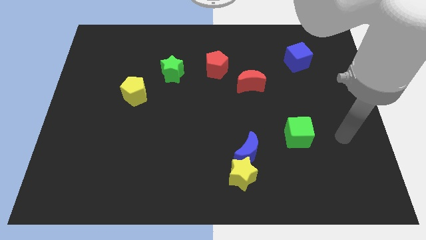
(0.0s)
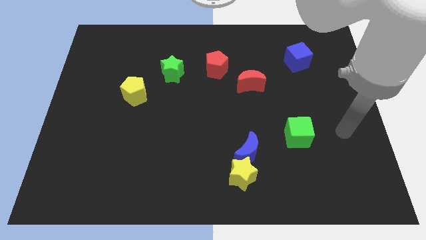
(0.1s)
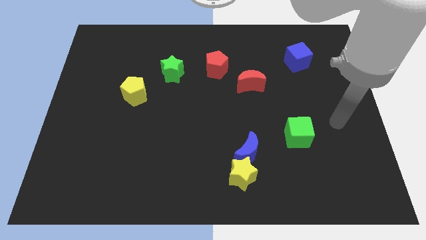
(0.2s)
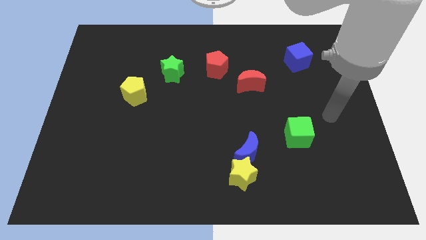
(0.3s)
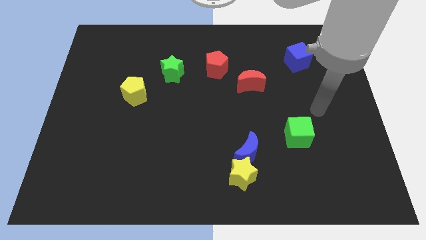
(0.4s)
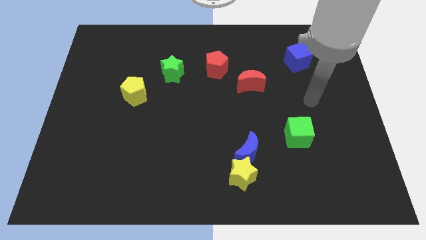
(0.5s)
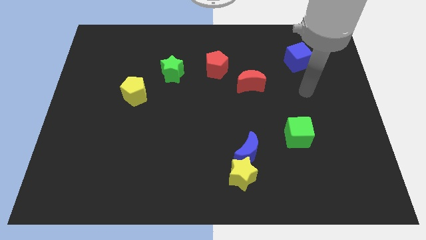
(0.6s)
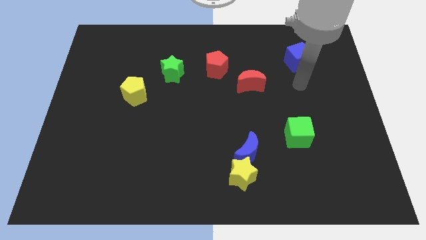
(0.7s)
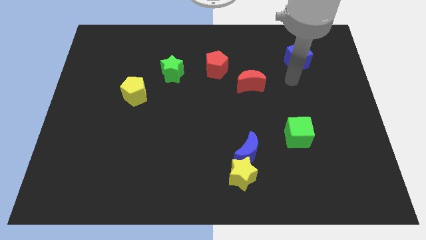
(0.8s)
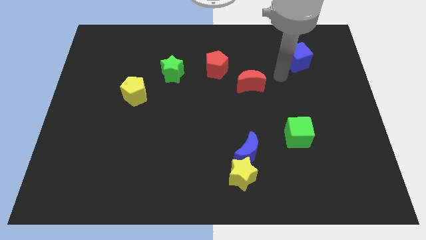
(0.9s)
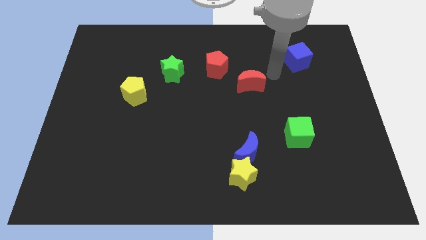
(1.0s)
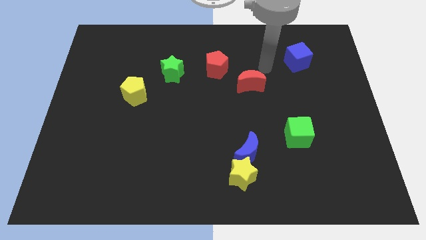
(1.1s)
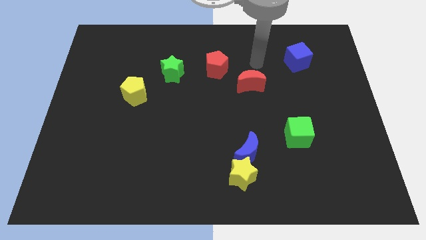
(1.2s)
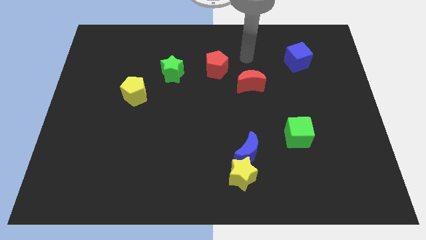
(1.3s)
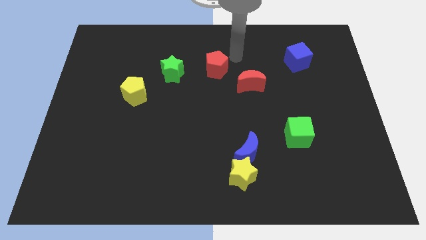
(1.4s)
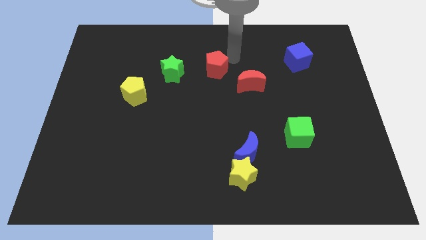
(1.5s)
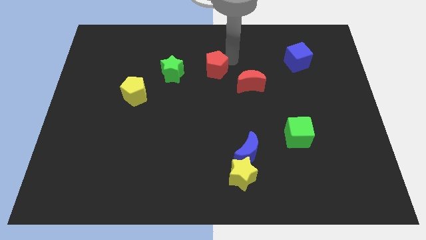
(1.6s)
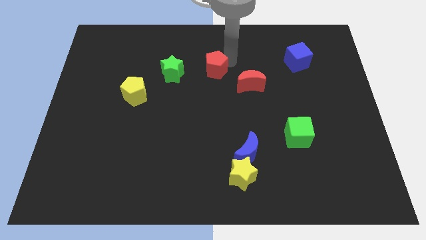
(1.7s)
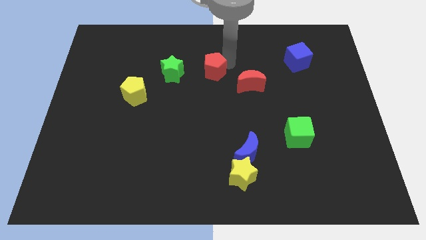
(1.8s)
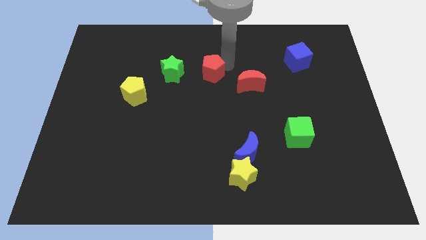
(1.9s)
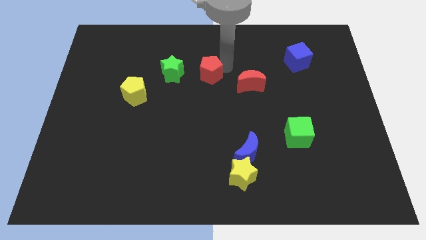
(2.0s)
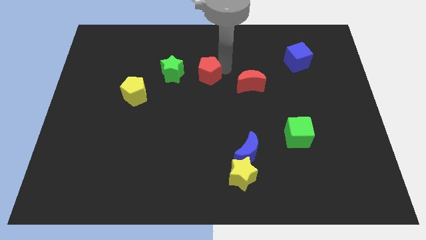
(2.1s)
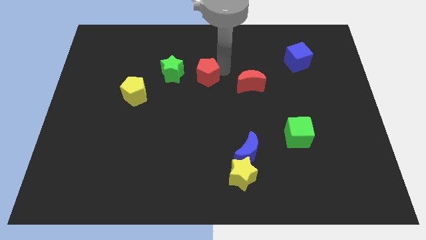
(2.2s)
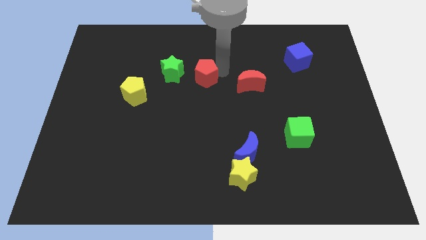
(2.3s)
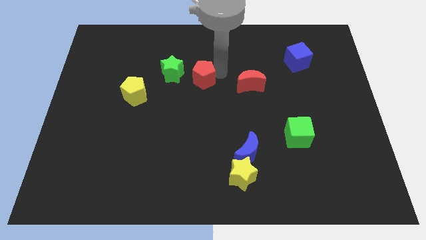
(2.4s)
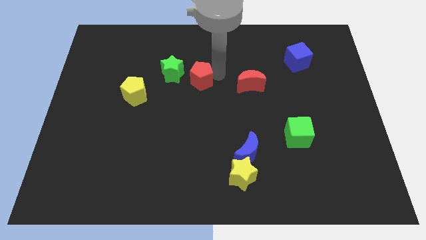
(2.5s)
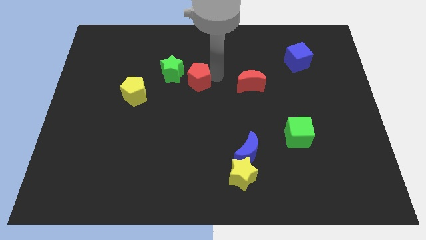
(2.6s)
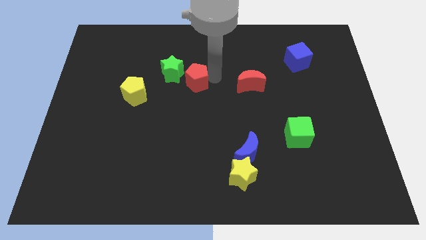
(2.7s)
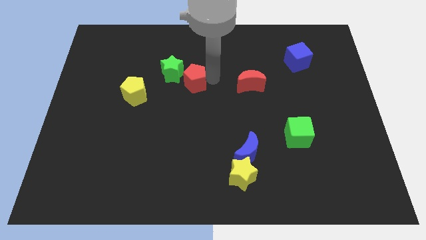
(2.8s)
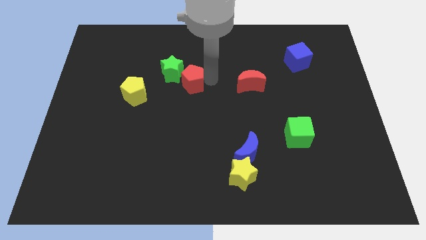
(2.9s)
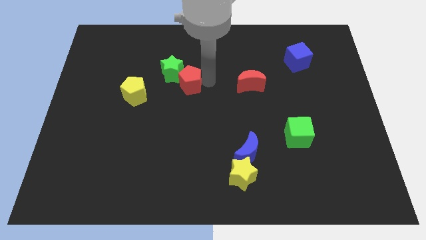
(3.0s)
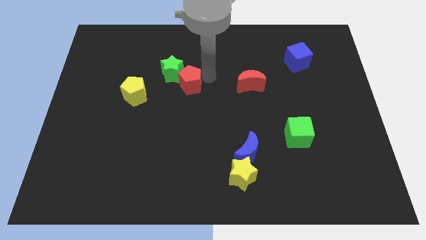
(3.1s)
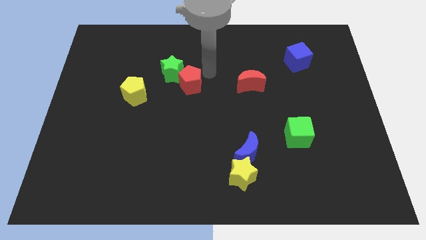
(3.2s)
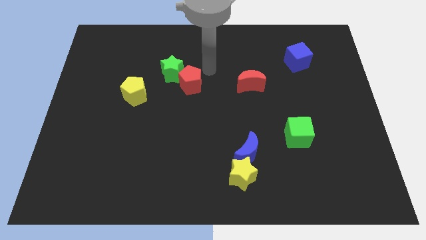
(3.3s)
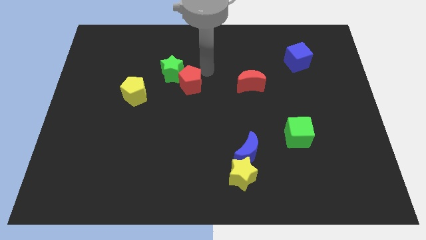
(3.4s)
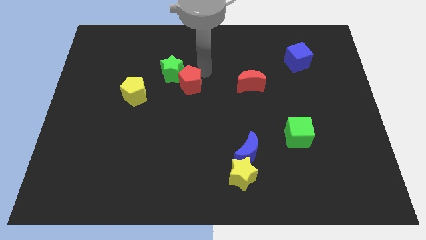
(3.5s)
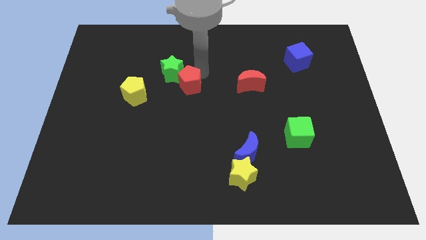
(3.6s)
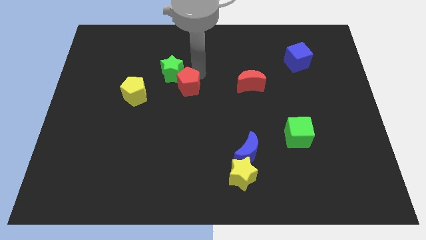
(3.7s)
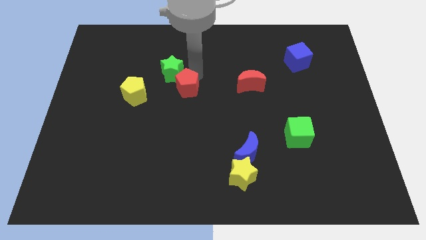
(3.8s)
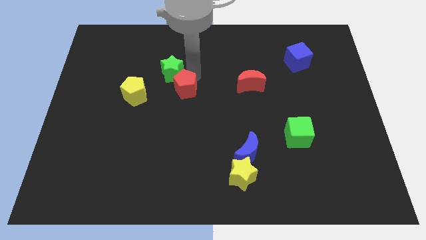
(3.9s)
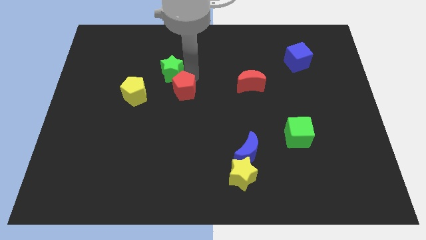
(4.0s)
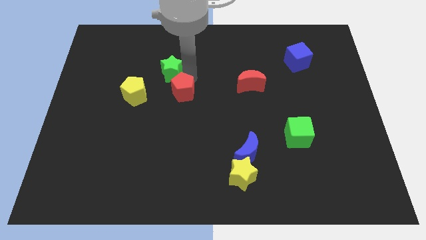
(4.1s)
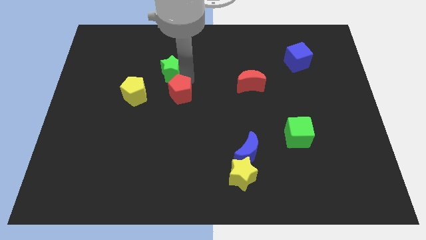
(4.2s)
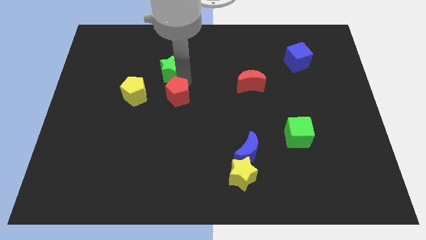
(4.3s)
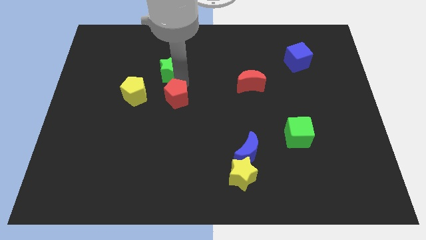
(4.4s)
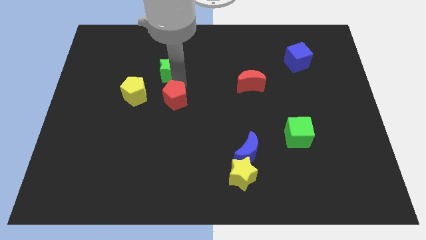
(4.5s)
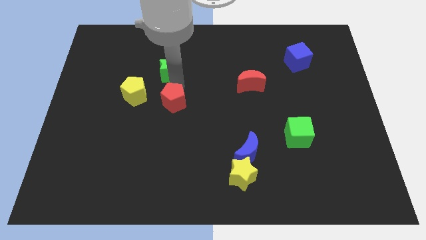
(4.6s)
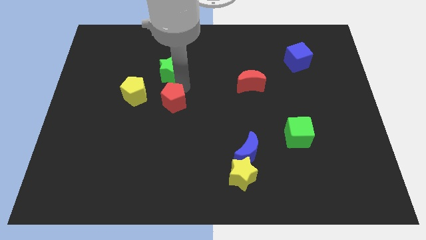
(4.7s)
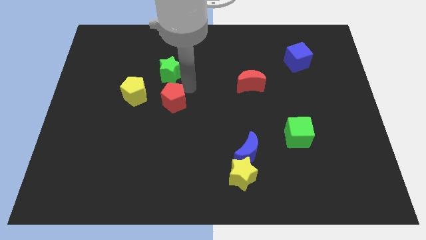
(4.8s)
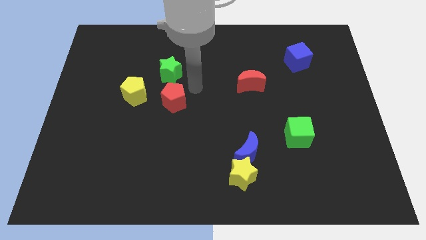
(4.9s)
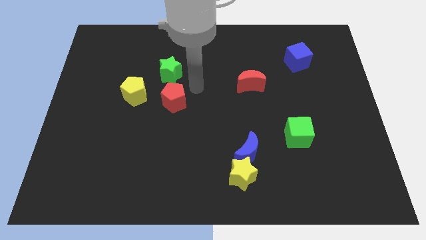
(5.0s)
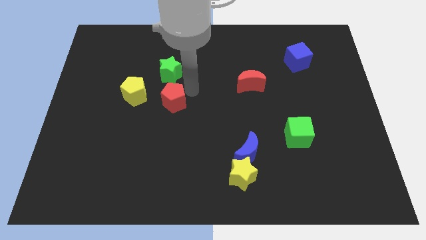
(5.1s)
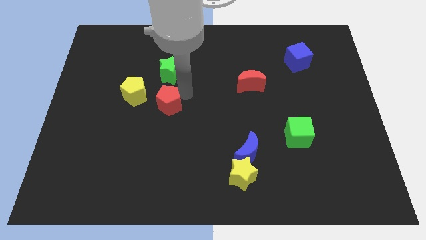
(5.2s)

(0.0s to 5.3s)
push the red pentagon to the bottom right side of the yellow pentagon

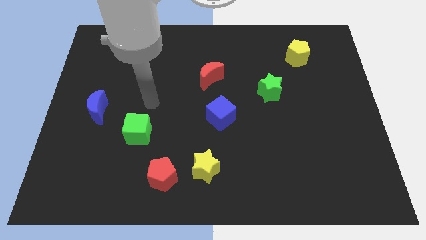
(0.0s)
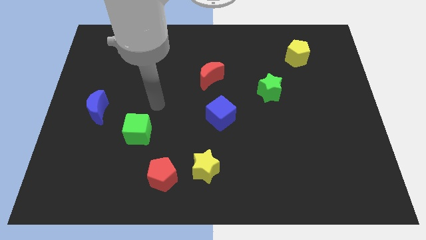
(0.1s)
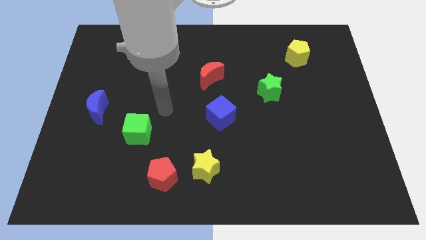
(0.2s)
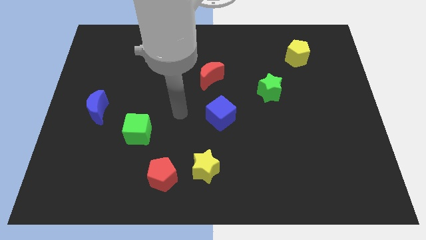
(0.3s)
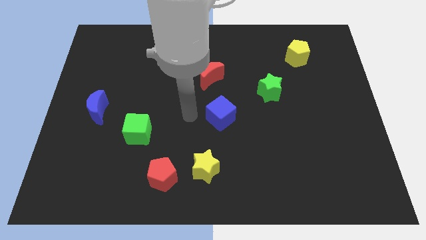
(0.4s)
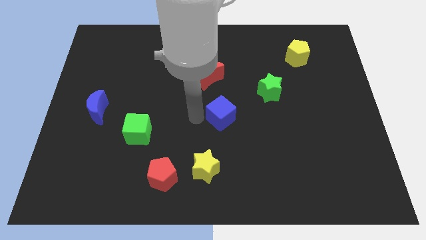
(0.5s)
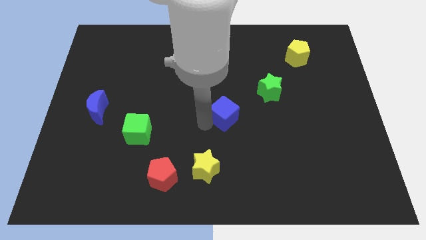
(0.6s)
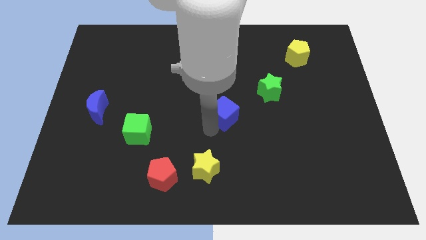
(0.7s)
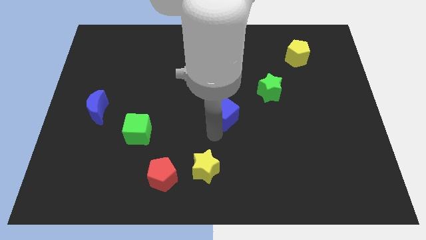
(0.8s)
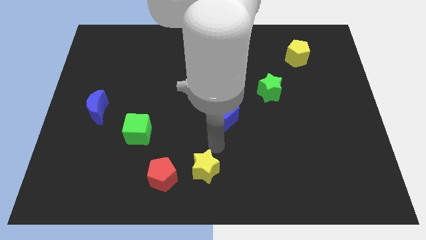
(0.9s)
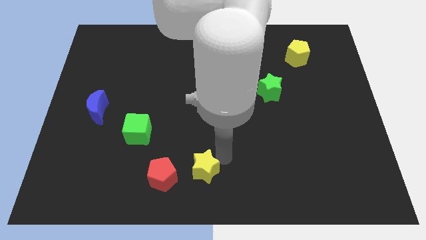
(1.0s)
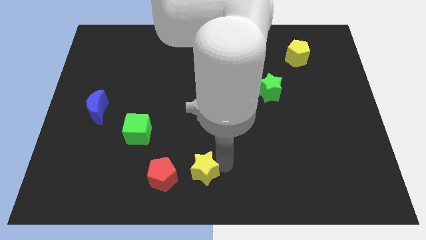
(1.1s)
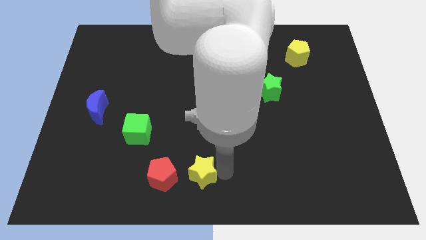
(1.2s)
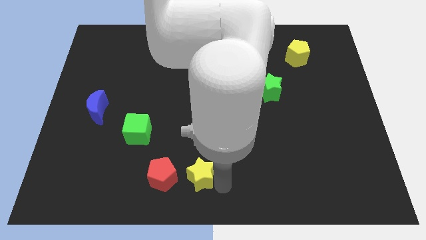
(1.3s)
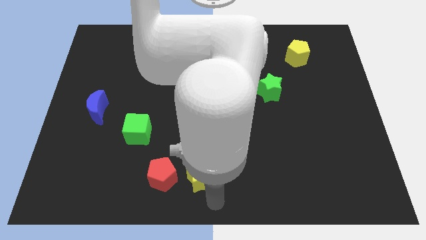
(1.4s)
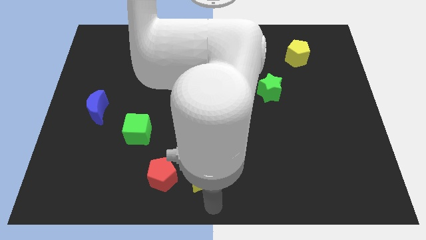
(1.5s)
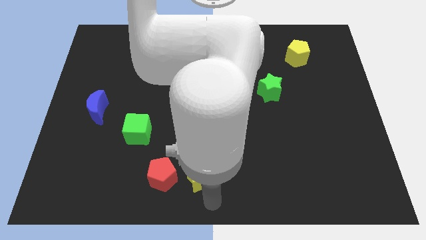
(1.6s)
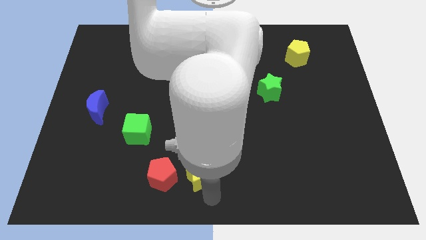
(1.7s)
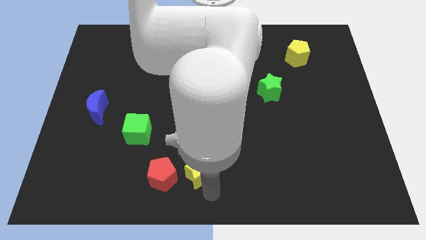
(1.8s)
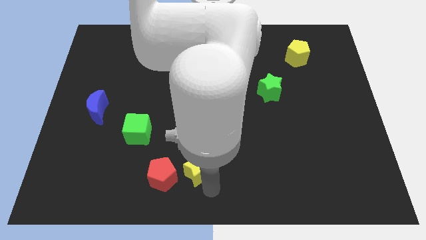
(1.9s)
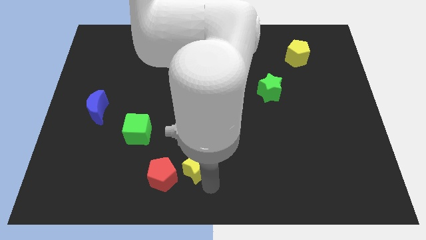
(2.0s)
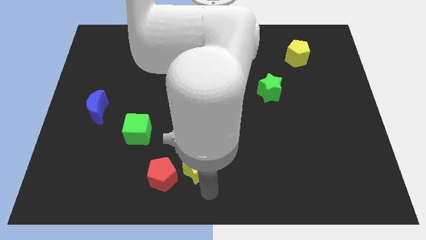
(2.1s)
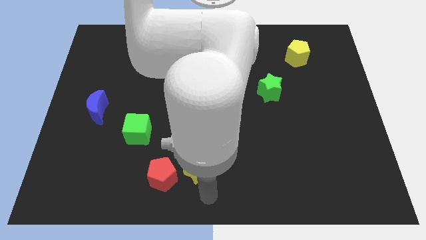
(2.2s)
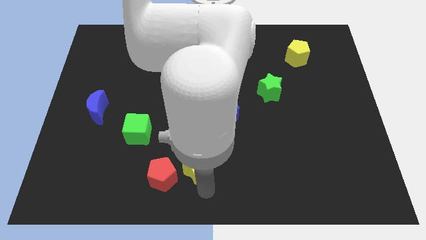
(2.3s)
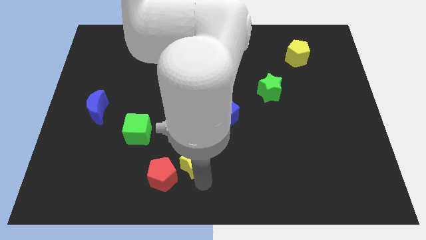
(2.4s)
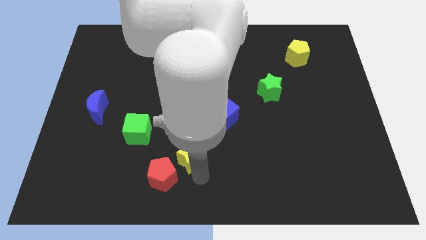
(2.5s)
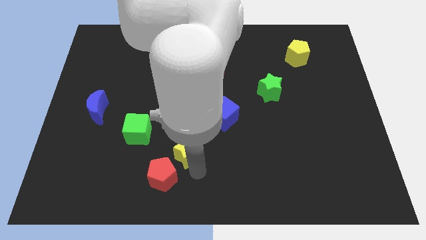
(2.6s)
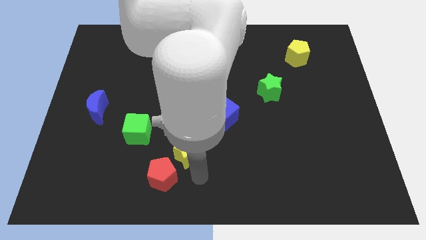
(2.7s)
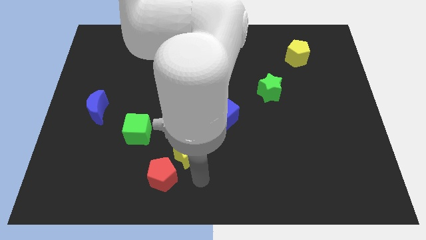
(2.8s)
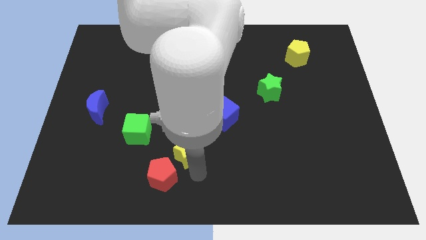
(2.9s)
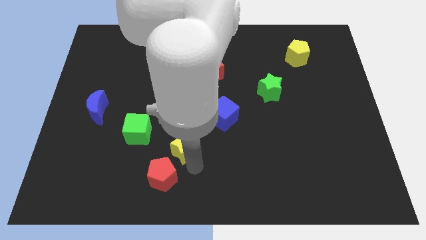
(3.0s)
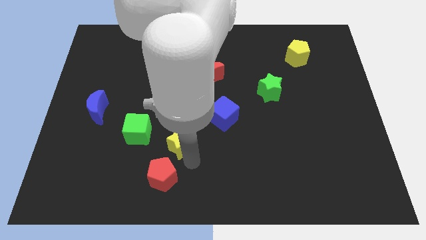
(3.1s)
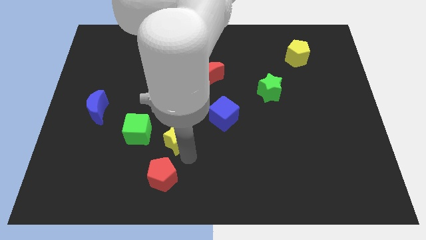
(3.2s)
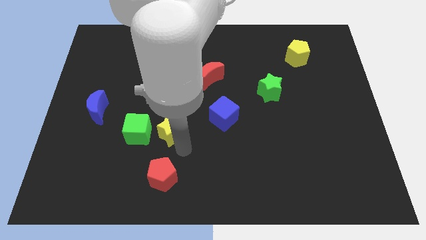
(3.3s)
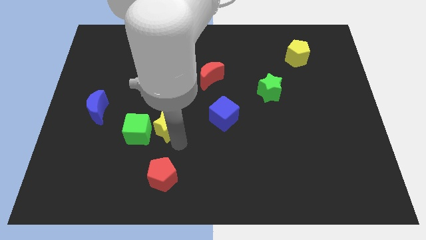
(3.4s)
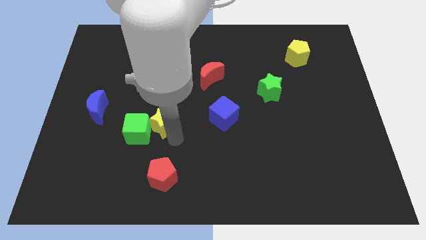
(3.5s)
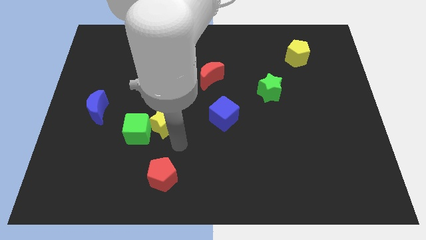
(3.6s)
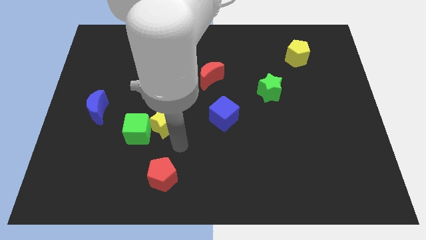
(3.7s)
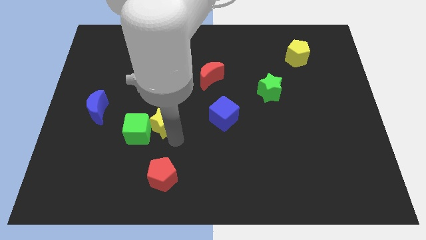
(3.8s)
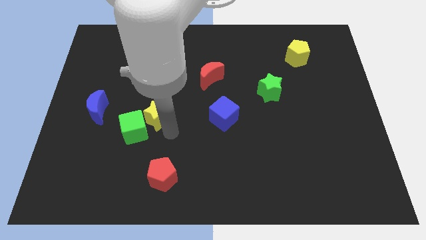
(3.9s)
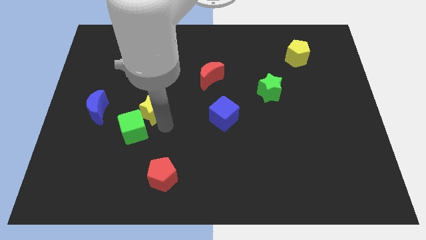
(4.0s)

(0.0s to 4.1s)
push the yellow star to the top side of the green cube
